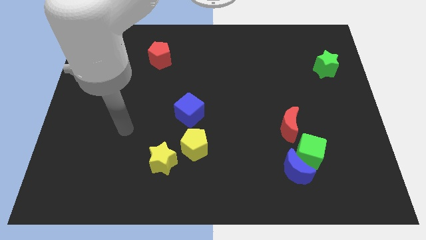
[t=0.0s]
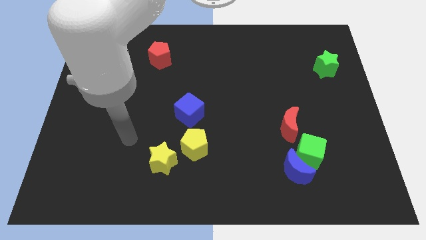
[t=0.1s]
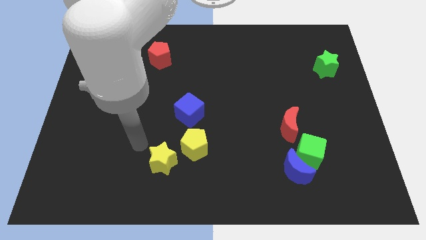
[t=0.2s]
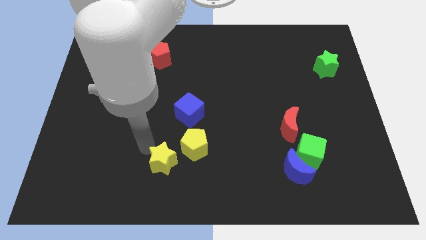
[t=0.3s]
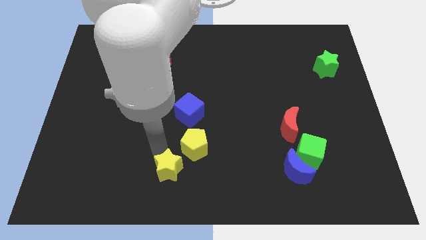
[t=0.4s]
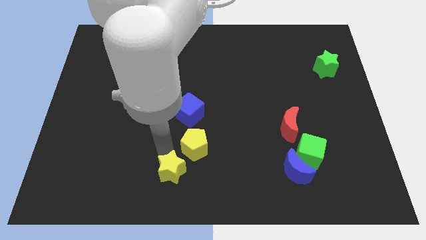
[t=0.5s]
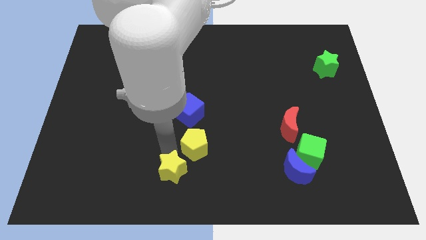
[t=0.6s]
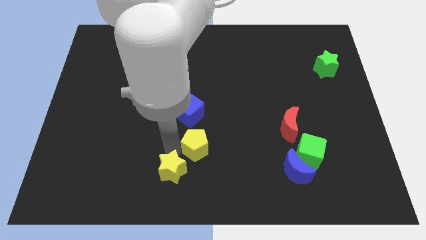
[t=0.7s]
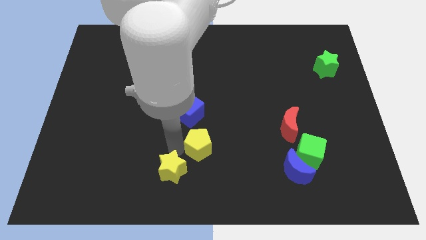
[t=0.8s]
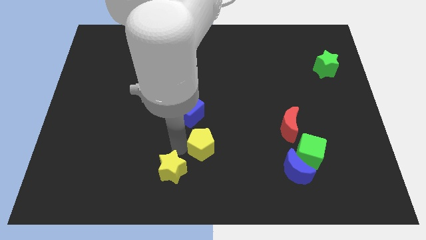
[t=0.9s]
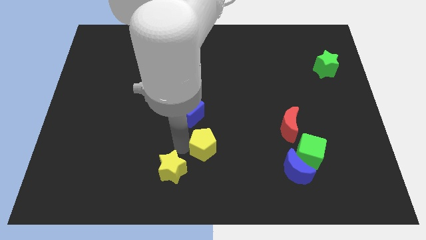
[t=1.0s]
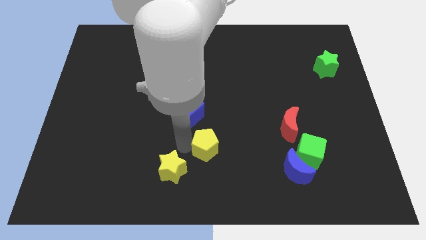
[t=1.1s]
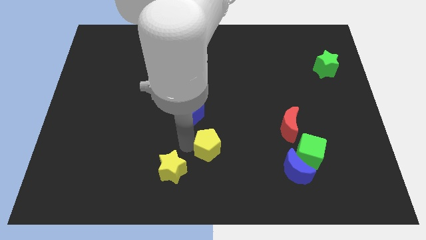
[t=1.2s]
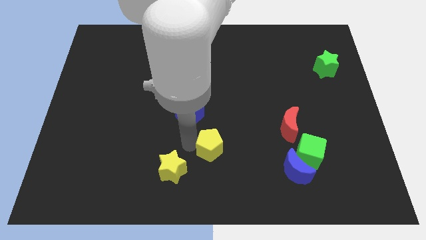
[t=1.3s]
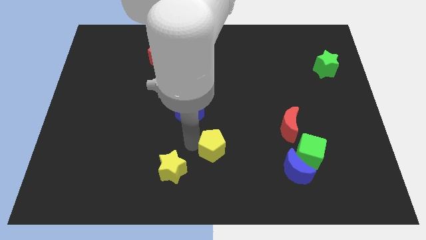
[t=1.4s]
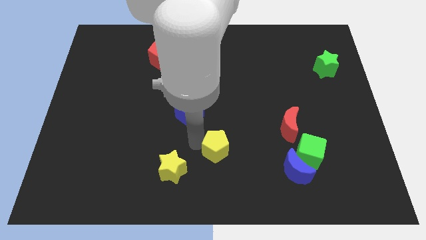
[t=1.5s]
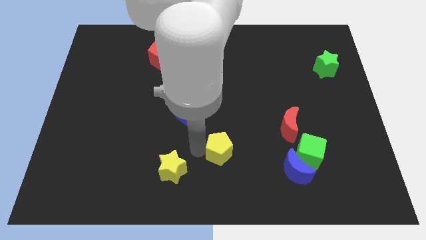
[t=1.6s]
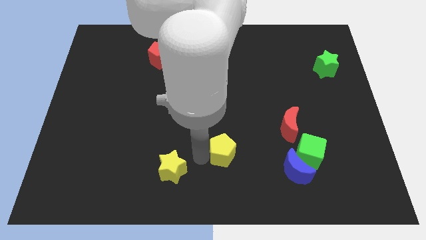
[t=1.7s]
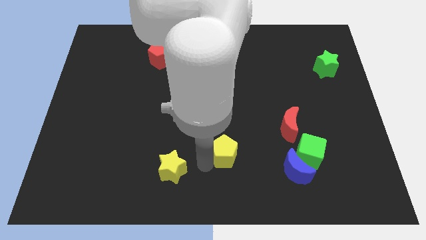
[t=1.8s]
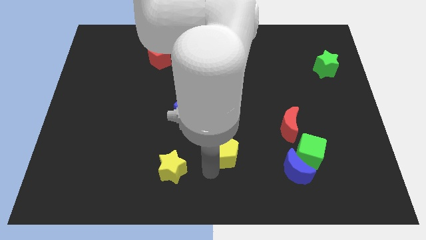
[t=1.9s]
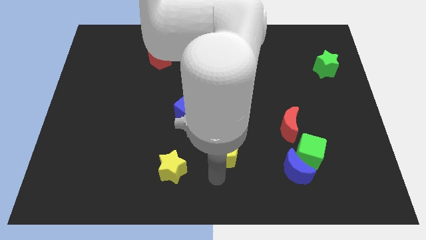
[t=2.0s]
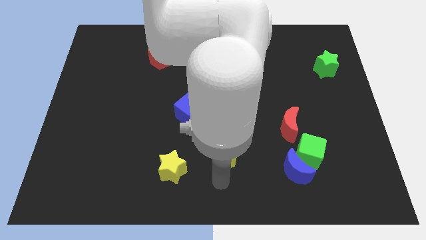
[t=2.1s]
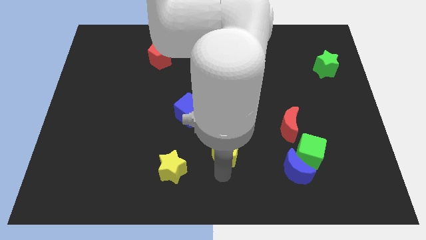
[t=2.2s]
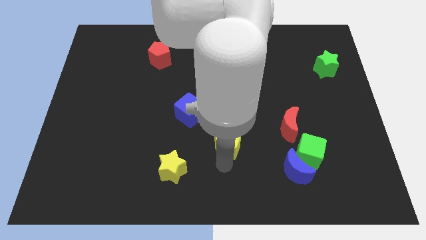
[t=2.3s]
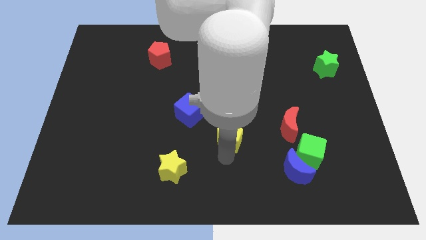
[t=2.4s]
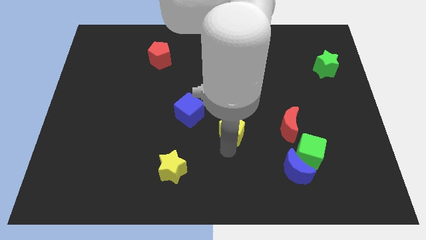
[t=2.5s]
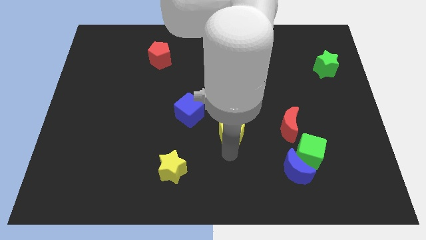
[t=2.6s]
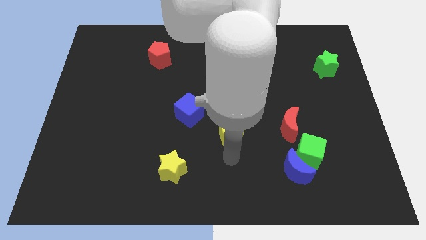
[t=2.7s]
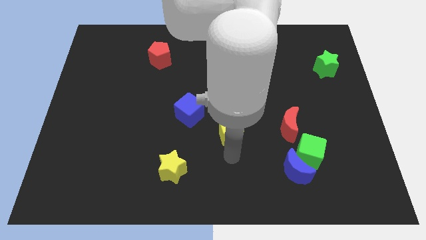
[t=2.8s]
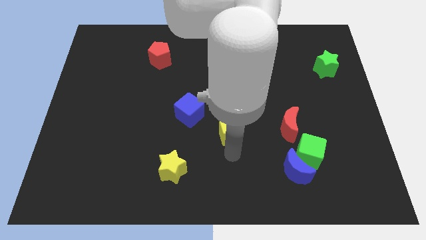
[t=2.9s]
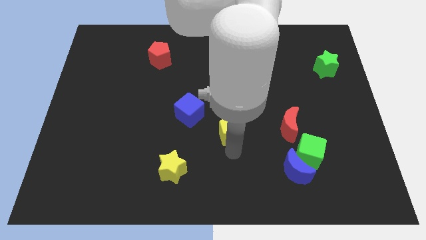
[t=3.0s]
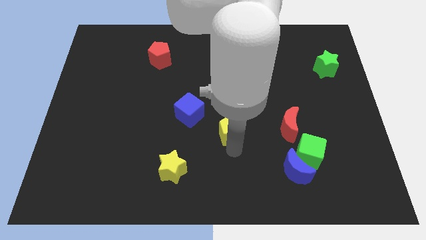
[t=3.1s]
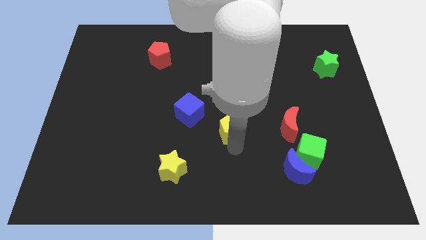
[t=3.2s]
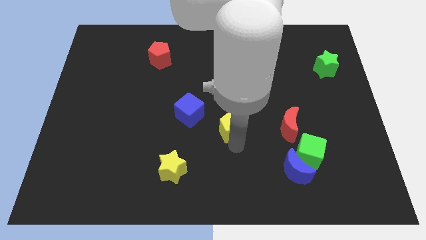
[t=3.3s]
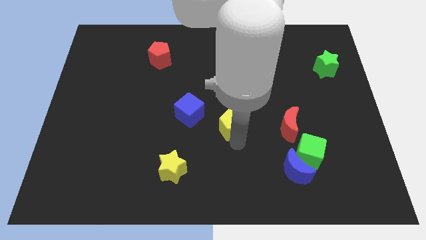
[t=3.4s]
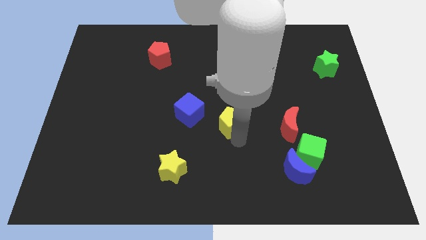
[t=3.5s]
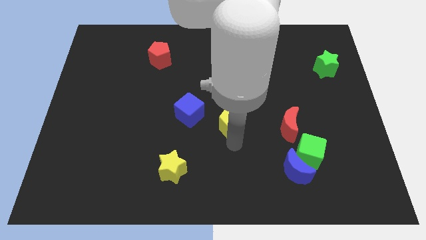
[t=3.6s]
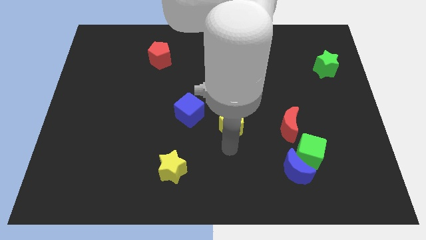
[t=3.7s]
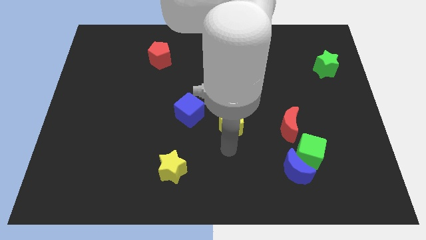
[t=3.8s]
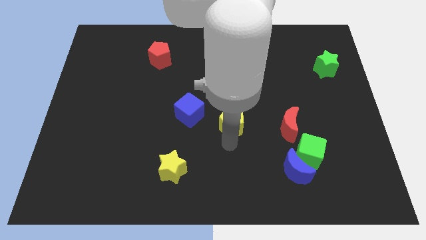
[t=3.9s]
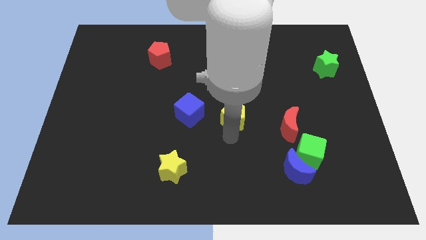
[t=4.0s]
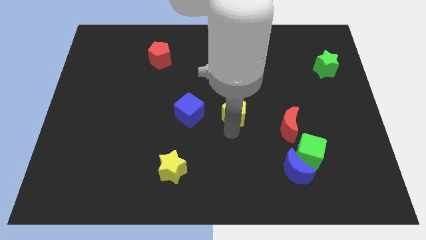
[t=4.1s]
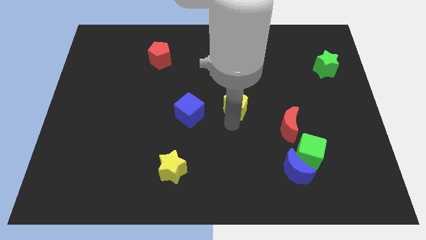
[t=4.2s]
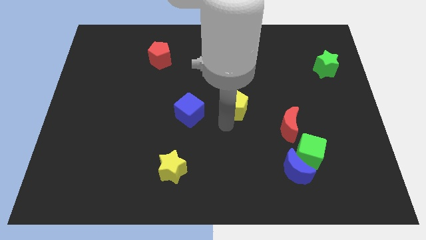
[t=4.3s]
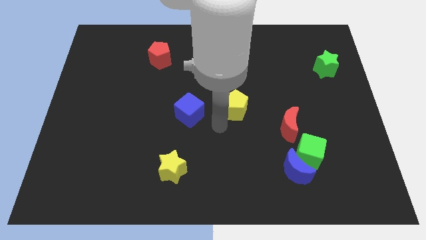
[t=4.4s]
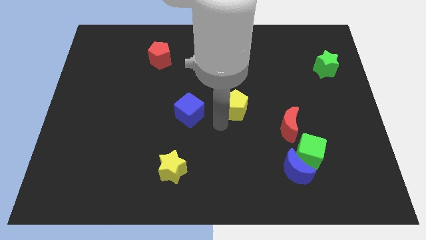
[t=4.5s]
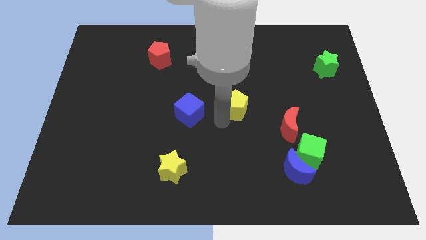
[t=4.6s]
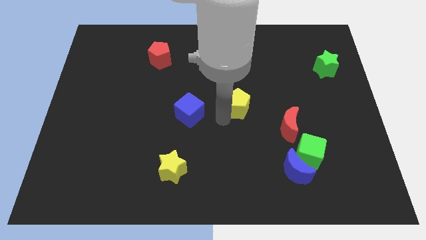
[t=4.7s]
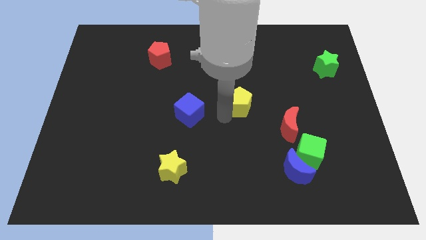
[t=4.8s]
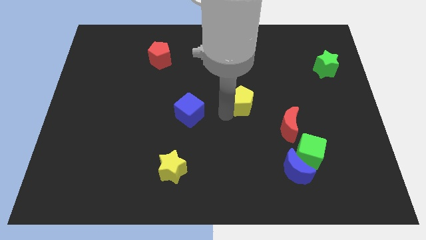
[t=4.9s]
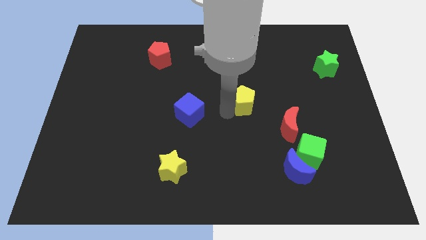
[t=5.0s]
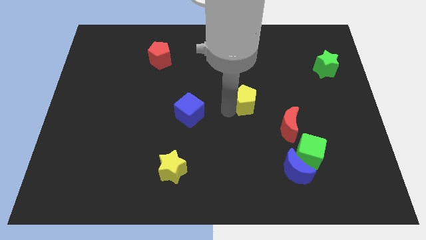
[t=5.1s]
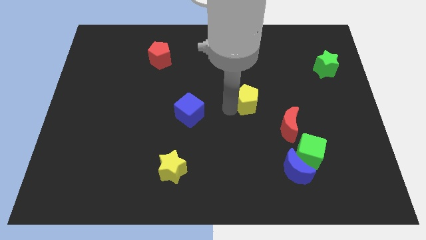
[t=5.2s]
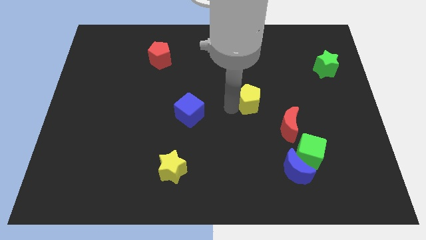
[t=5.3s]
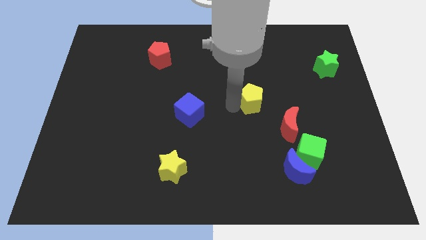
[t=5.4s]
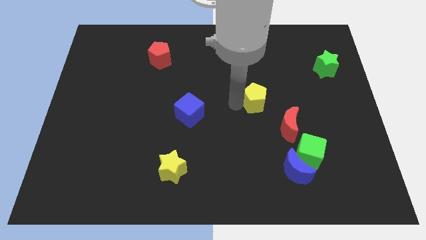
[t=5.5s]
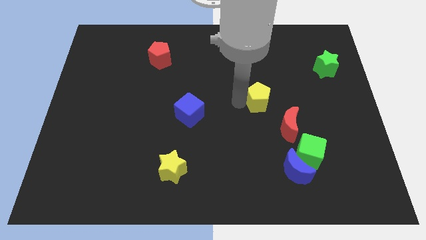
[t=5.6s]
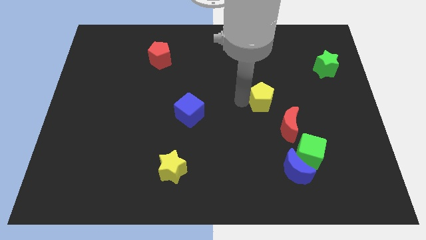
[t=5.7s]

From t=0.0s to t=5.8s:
move the yellow pentagon upwards and to the right diagonally

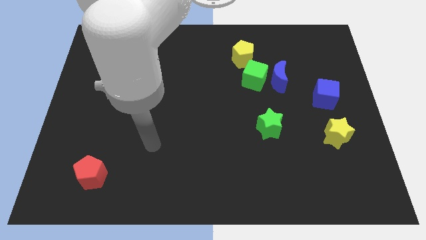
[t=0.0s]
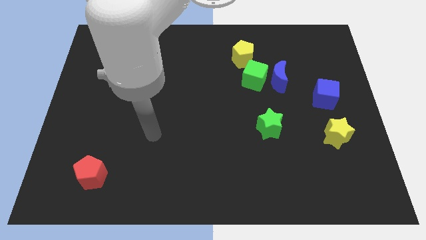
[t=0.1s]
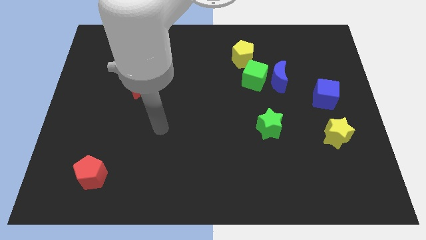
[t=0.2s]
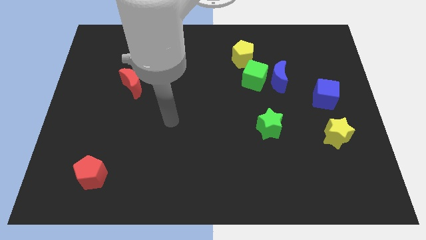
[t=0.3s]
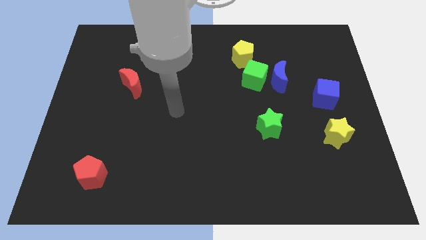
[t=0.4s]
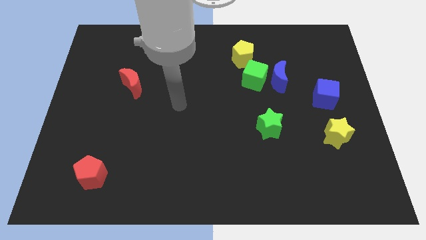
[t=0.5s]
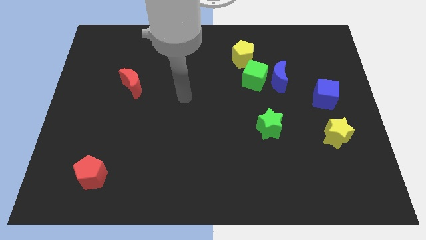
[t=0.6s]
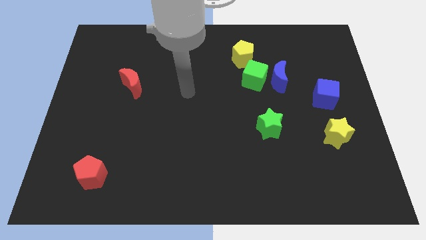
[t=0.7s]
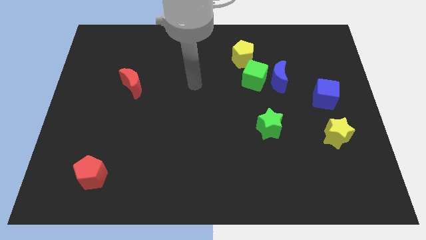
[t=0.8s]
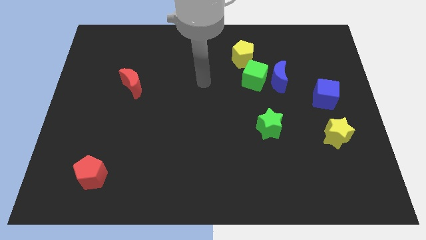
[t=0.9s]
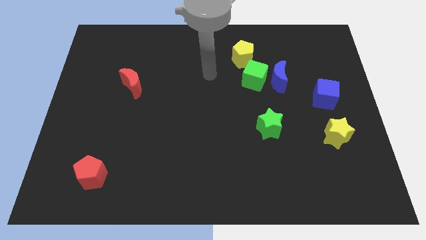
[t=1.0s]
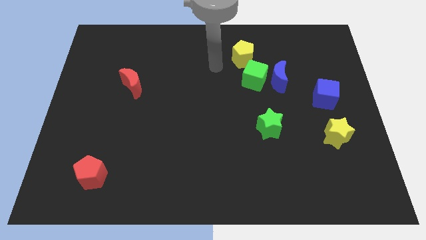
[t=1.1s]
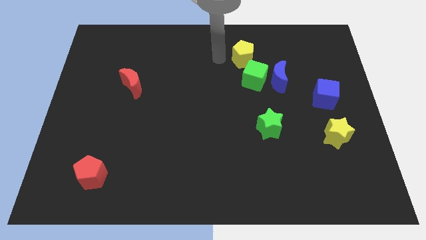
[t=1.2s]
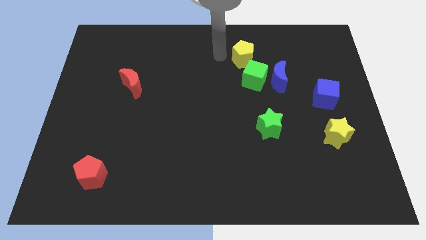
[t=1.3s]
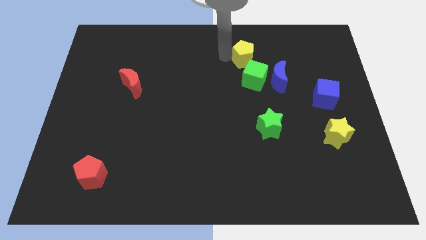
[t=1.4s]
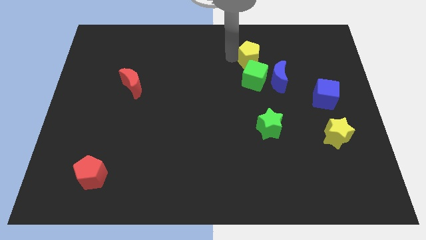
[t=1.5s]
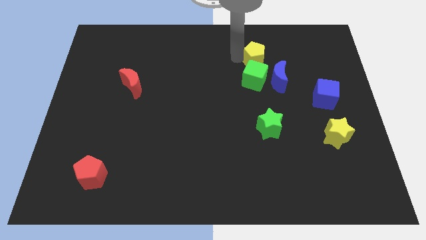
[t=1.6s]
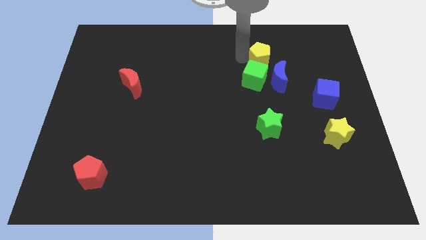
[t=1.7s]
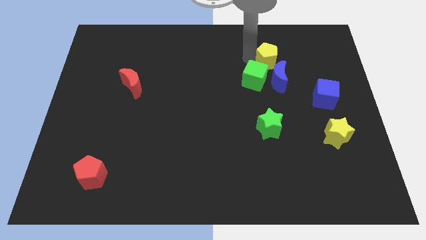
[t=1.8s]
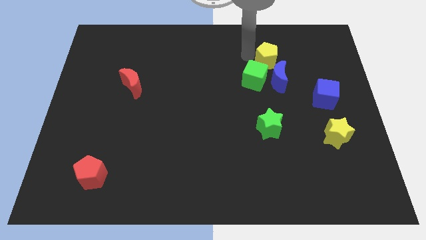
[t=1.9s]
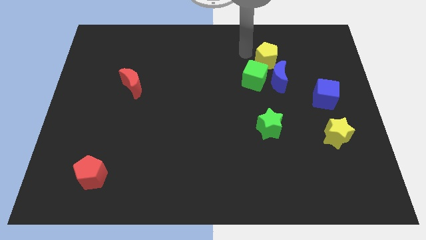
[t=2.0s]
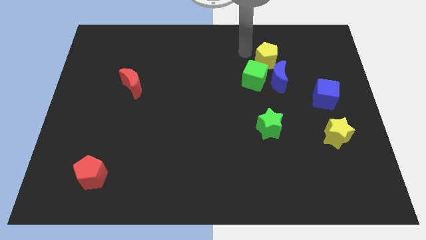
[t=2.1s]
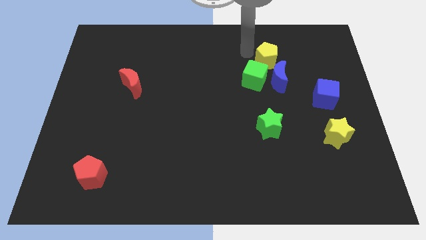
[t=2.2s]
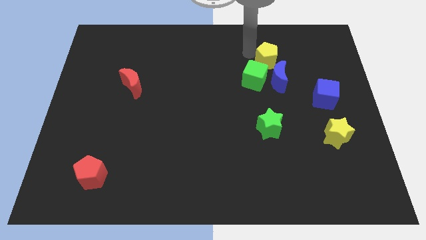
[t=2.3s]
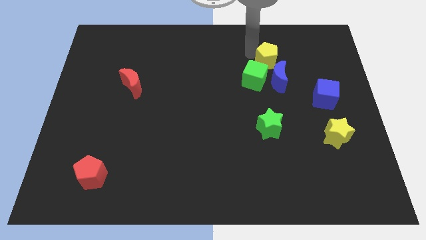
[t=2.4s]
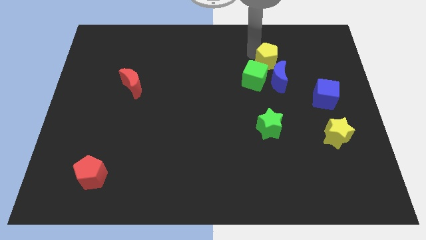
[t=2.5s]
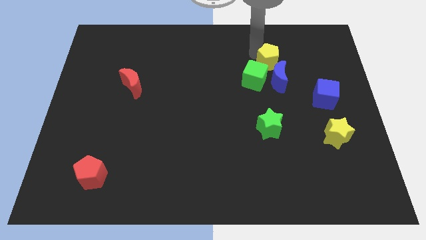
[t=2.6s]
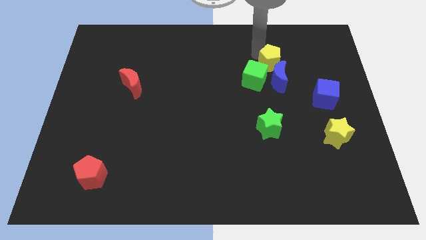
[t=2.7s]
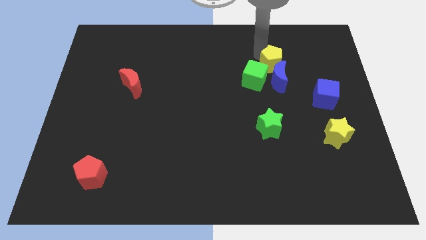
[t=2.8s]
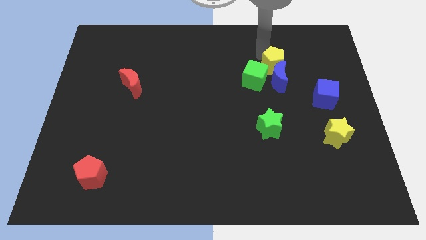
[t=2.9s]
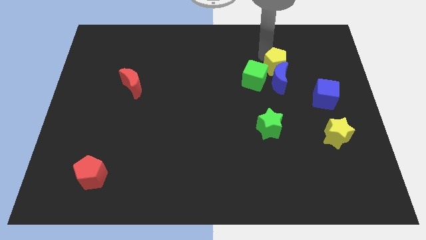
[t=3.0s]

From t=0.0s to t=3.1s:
push the yellow pentagon a little bit down and right diagonally
